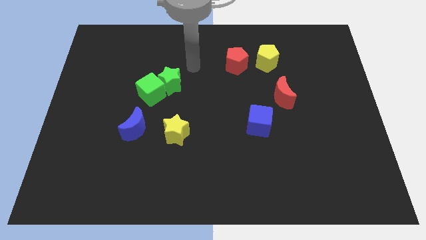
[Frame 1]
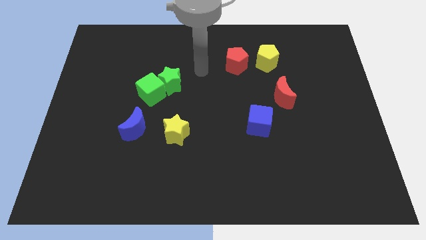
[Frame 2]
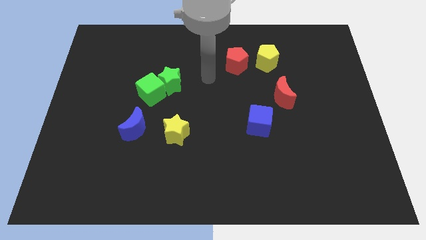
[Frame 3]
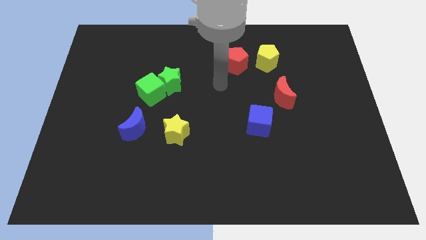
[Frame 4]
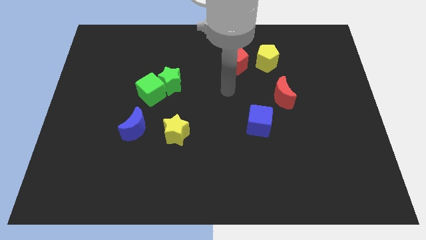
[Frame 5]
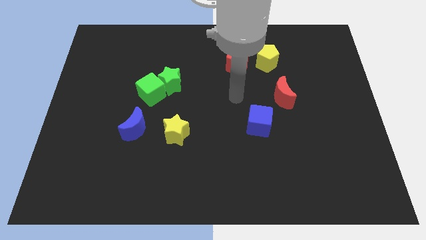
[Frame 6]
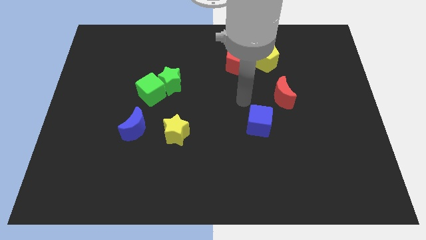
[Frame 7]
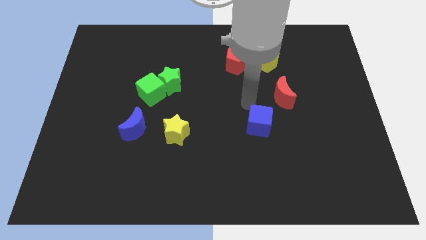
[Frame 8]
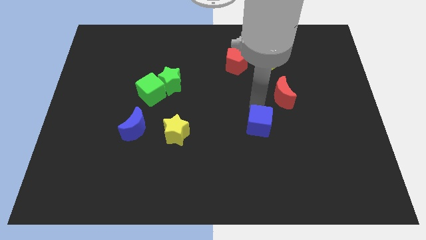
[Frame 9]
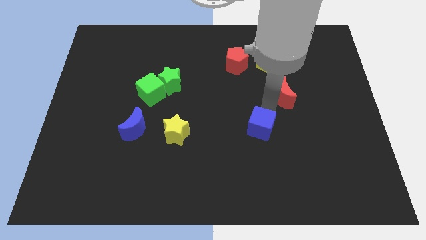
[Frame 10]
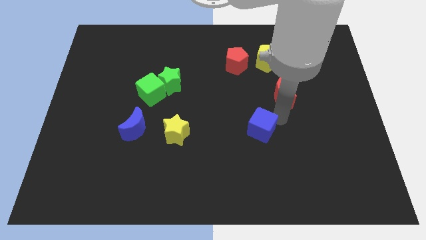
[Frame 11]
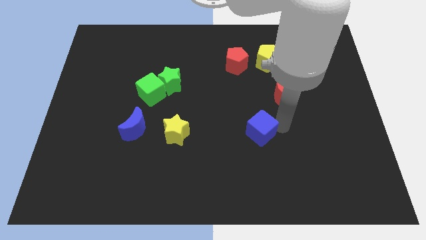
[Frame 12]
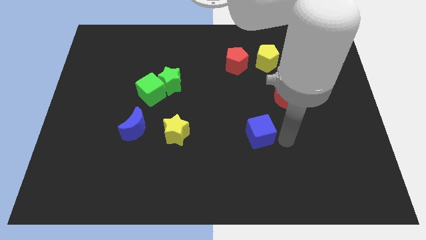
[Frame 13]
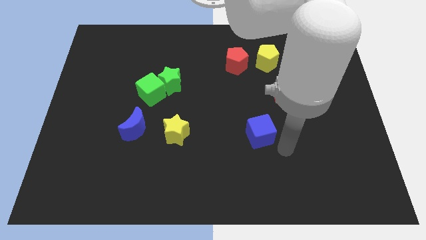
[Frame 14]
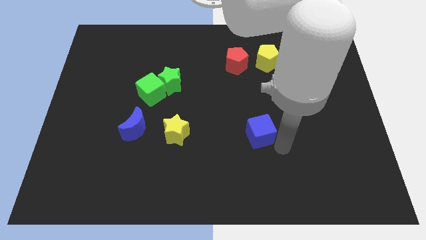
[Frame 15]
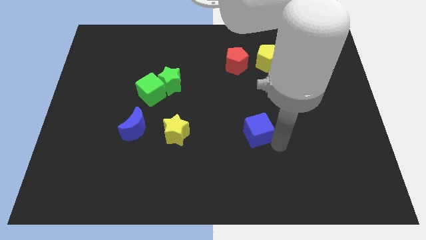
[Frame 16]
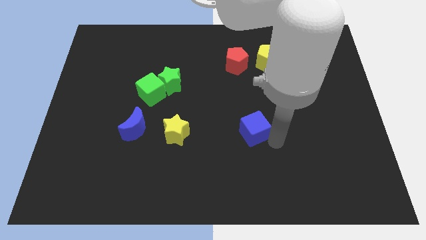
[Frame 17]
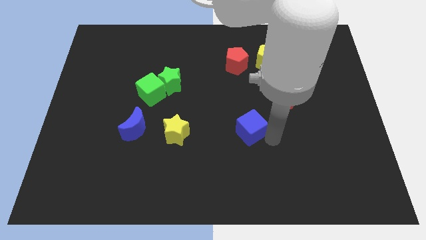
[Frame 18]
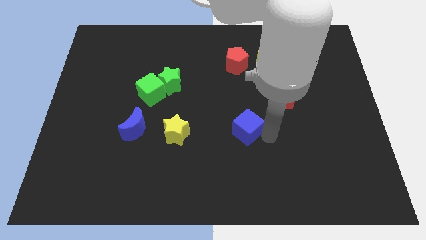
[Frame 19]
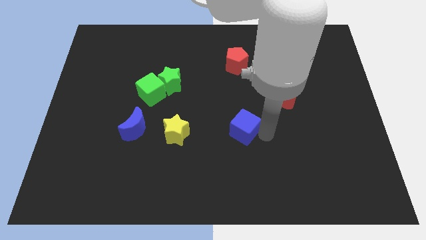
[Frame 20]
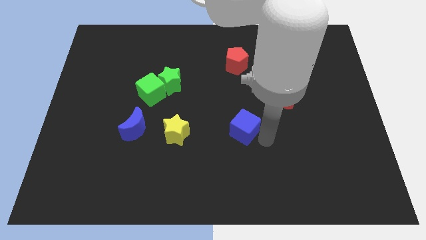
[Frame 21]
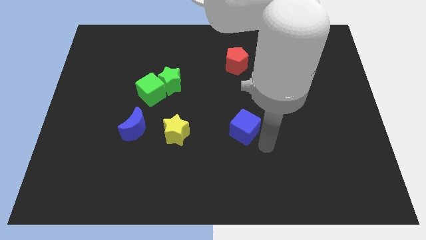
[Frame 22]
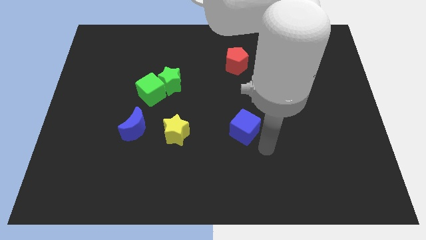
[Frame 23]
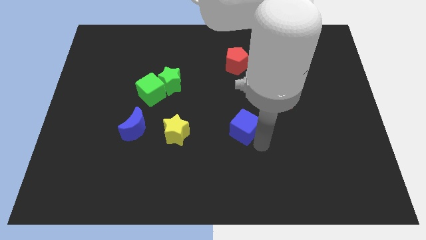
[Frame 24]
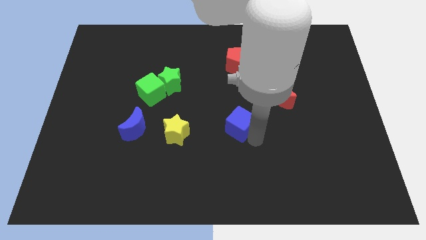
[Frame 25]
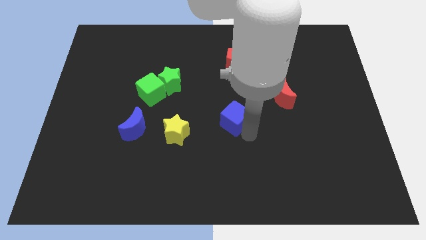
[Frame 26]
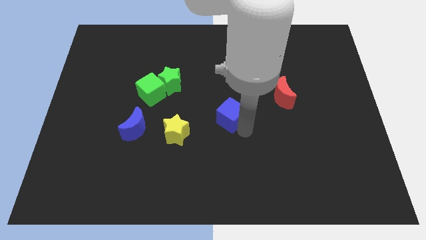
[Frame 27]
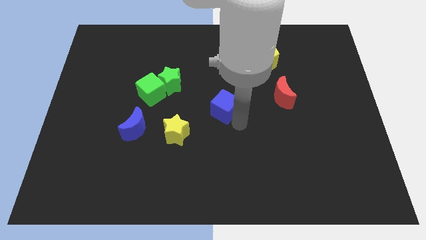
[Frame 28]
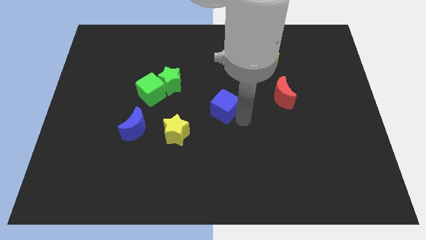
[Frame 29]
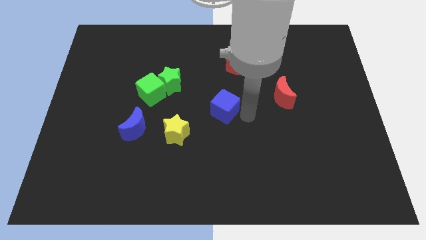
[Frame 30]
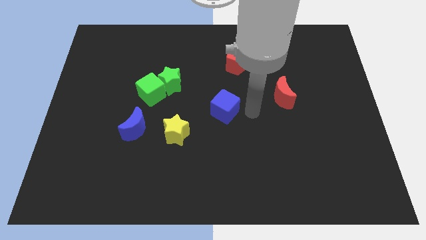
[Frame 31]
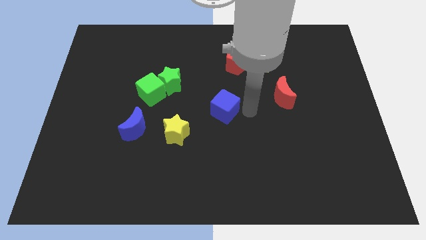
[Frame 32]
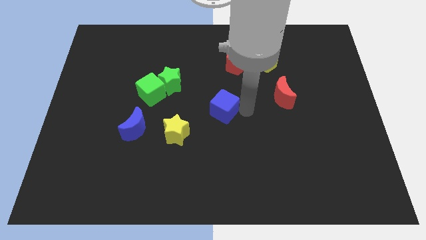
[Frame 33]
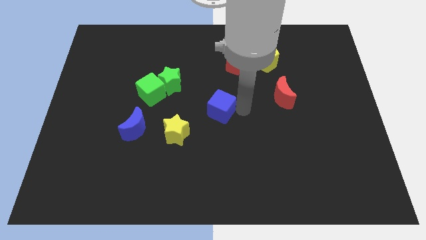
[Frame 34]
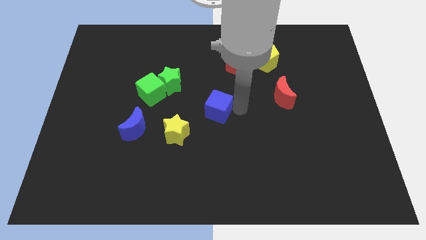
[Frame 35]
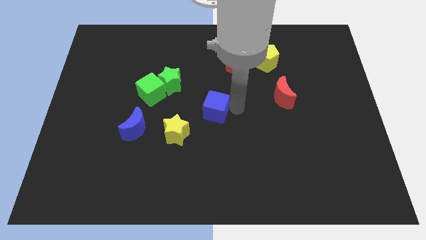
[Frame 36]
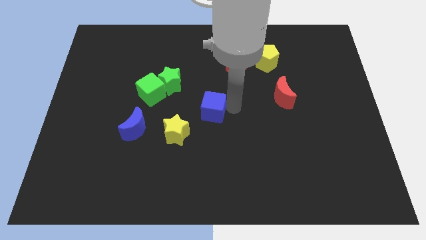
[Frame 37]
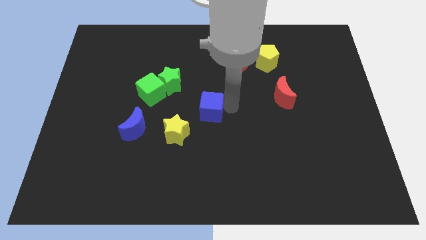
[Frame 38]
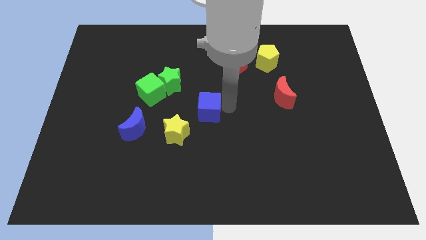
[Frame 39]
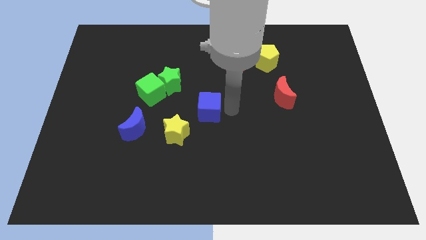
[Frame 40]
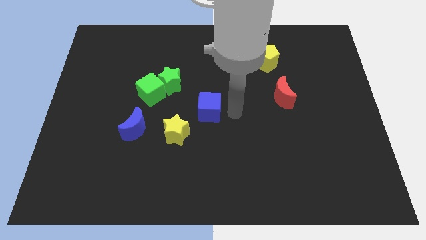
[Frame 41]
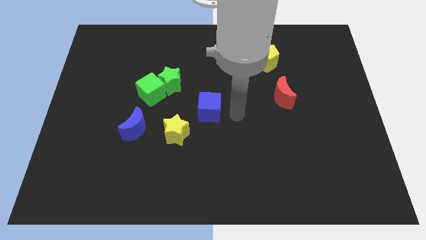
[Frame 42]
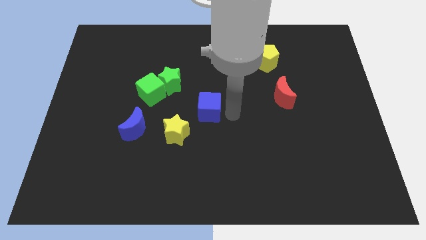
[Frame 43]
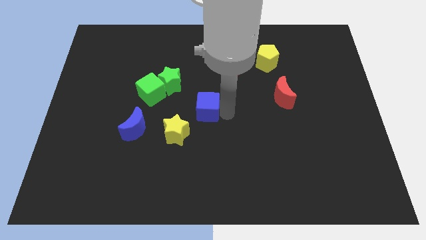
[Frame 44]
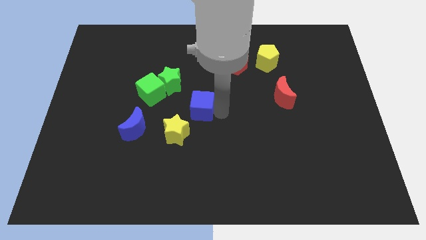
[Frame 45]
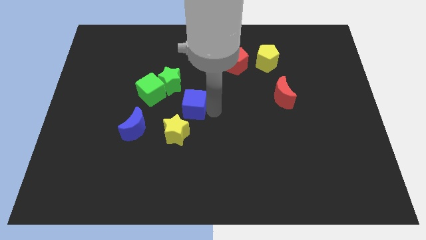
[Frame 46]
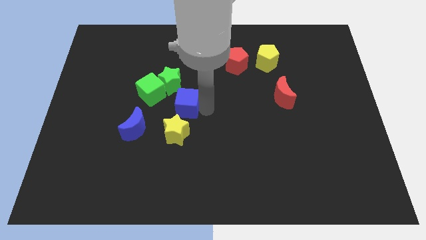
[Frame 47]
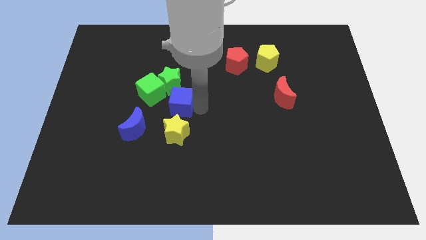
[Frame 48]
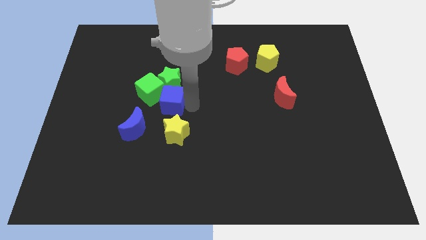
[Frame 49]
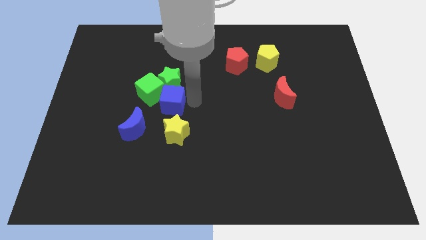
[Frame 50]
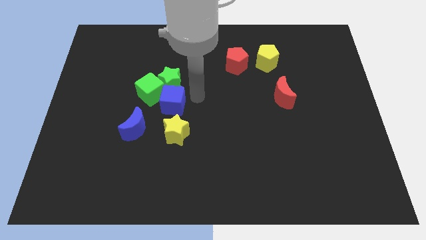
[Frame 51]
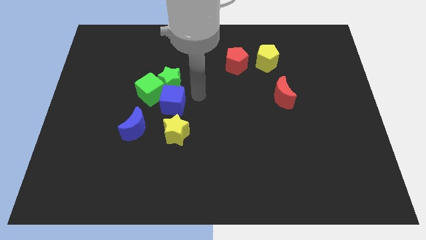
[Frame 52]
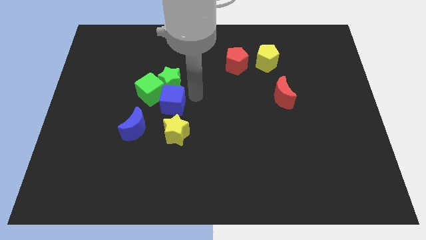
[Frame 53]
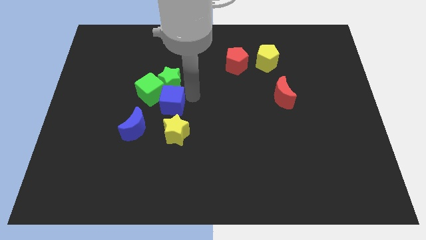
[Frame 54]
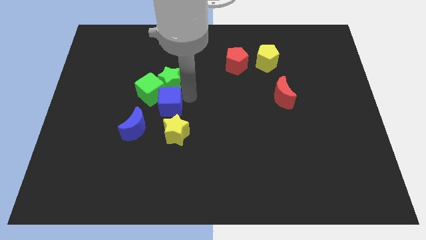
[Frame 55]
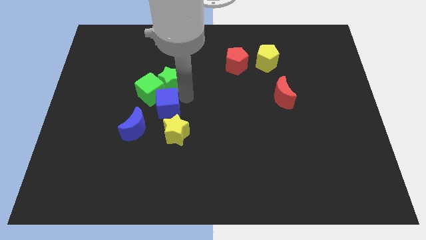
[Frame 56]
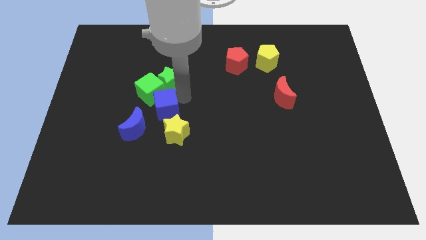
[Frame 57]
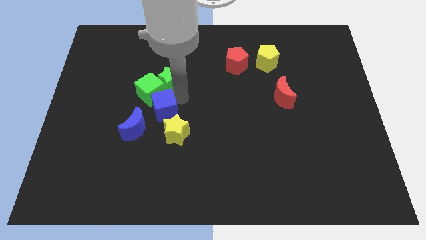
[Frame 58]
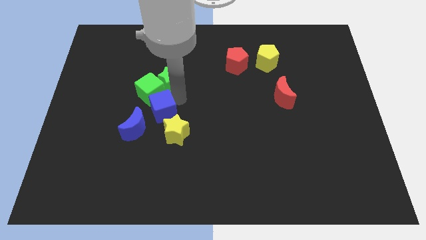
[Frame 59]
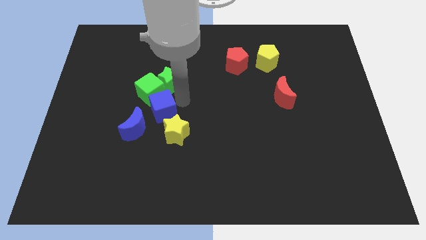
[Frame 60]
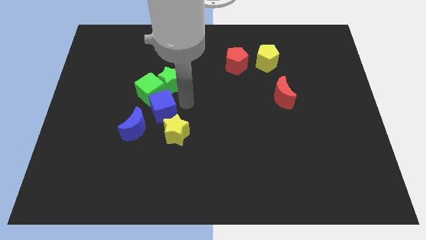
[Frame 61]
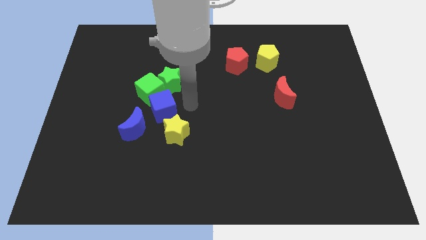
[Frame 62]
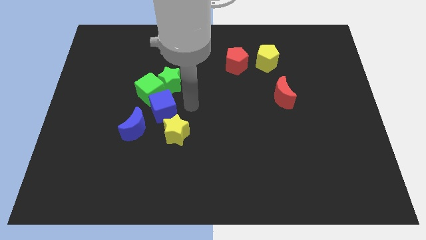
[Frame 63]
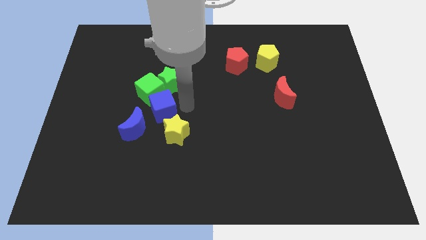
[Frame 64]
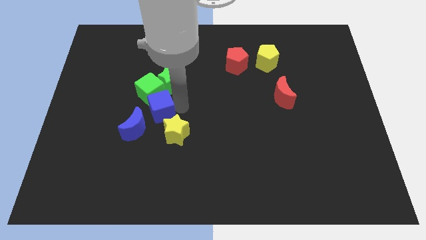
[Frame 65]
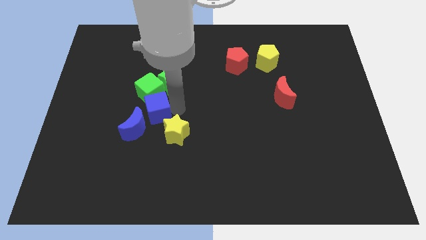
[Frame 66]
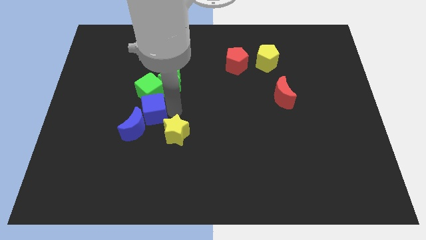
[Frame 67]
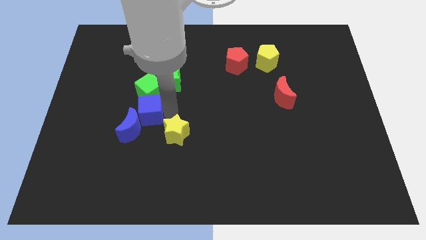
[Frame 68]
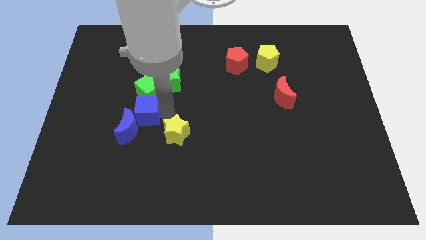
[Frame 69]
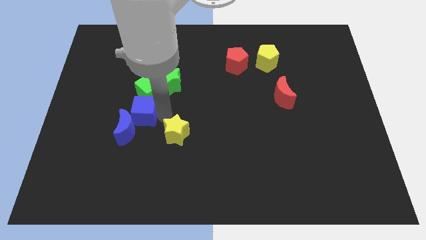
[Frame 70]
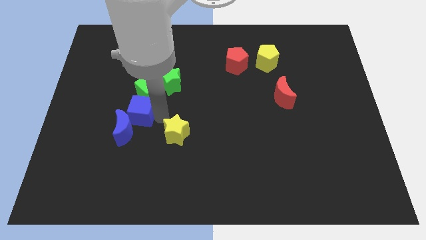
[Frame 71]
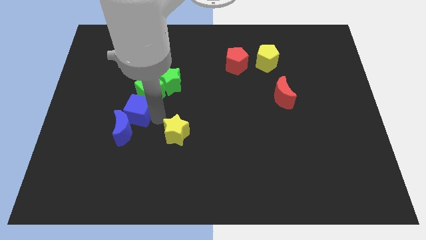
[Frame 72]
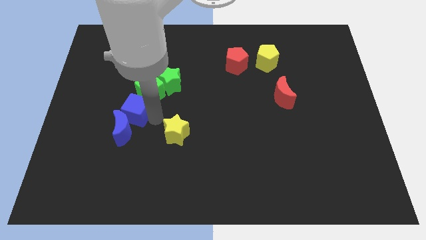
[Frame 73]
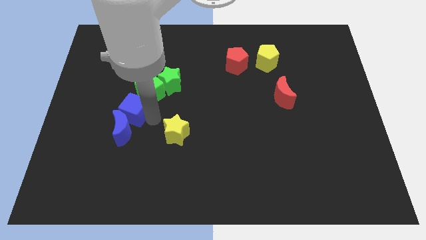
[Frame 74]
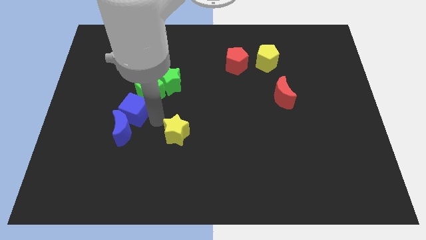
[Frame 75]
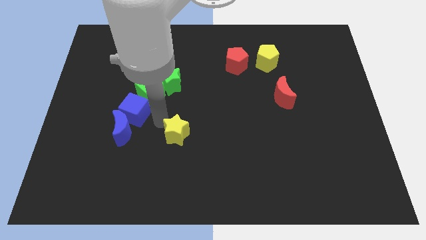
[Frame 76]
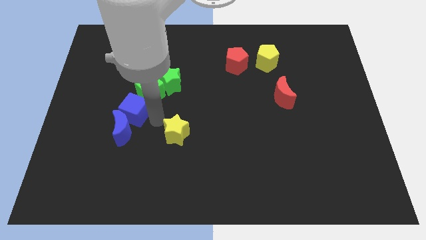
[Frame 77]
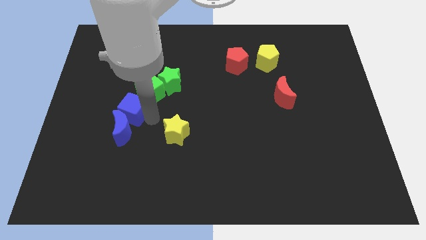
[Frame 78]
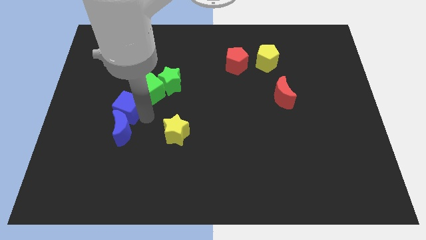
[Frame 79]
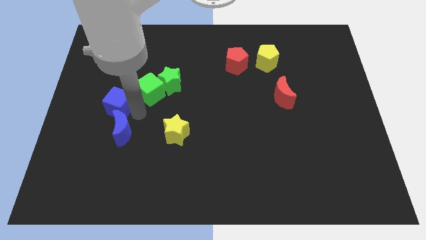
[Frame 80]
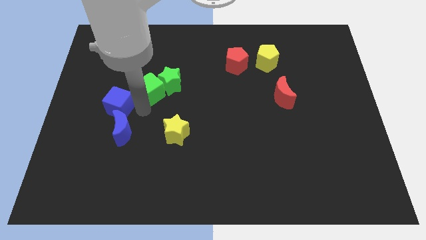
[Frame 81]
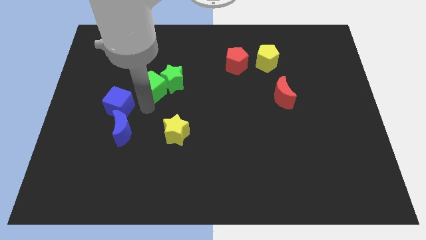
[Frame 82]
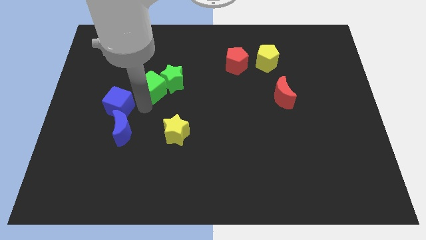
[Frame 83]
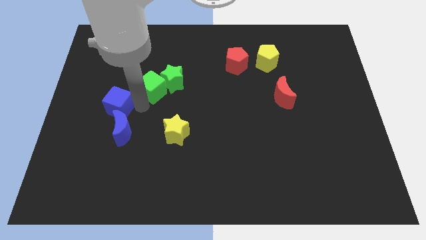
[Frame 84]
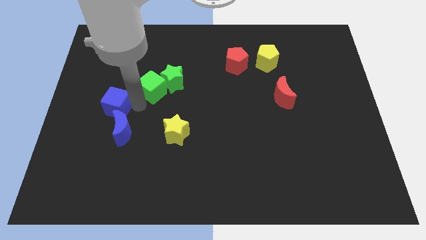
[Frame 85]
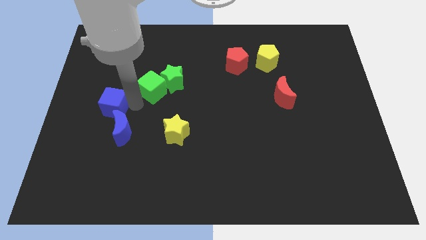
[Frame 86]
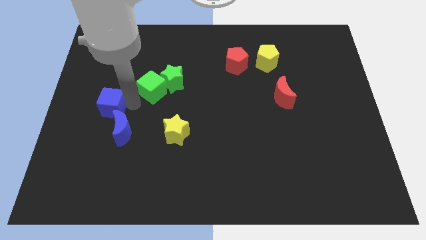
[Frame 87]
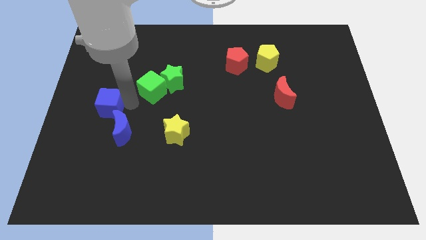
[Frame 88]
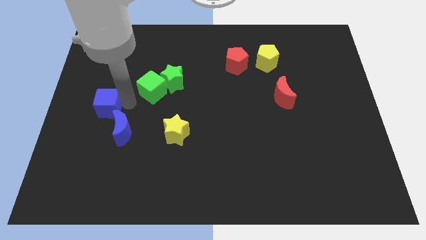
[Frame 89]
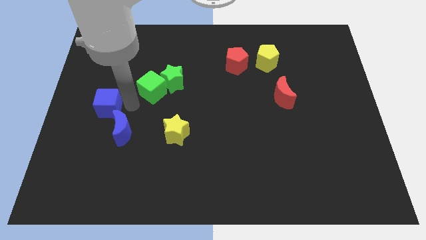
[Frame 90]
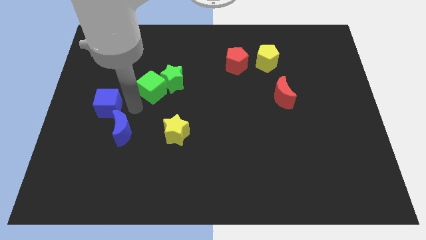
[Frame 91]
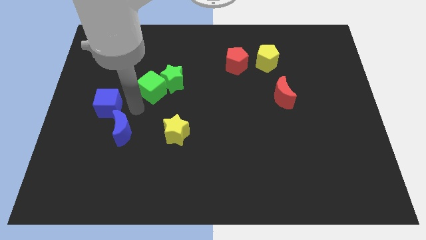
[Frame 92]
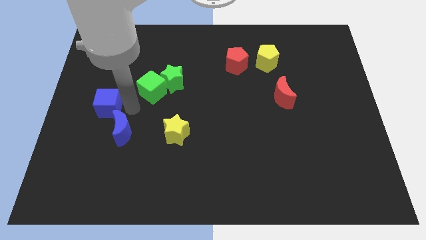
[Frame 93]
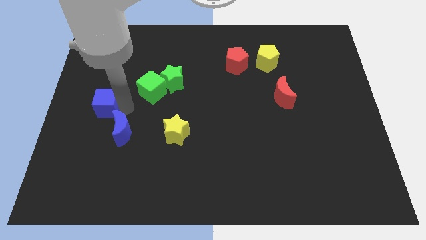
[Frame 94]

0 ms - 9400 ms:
push the blue cube to the center left
